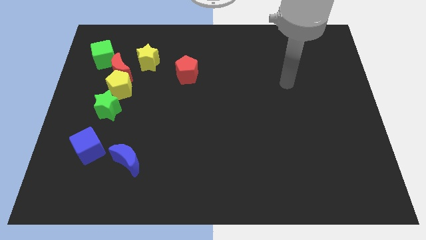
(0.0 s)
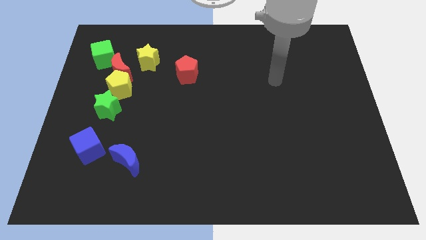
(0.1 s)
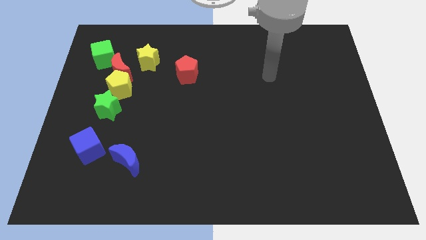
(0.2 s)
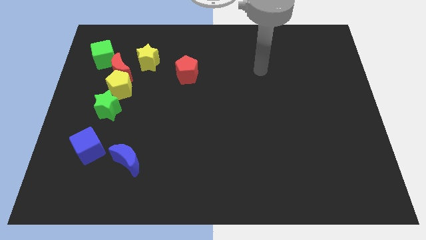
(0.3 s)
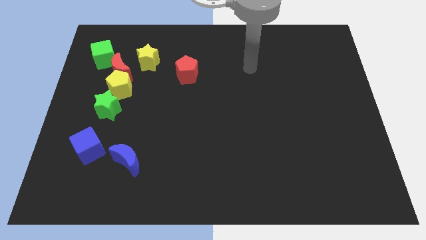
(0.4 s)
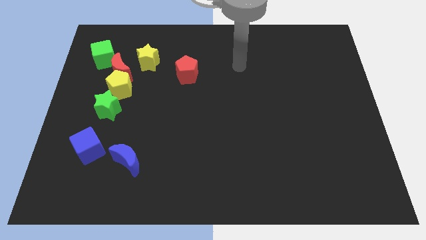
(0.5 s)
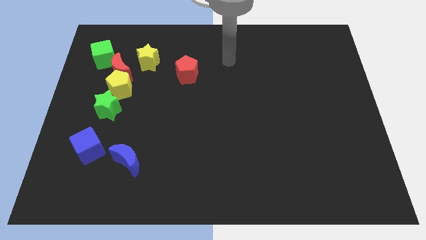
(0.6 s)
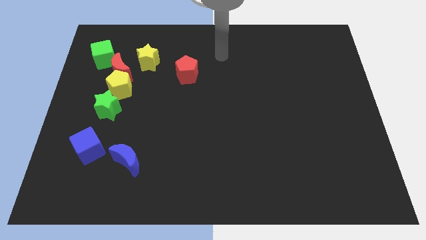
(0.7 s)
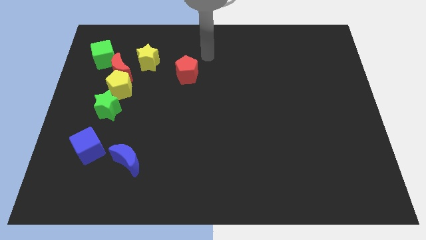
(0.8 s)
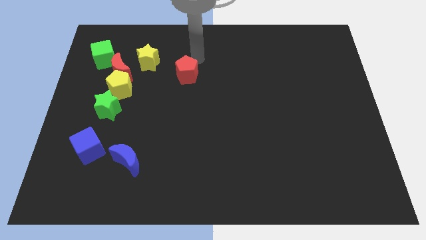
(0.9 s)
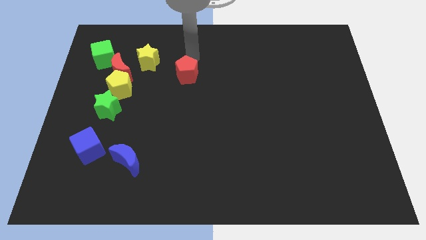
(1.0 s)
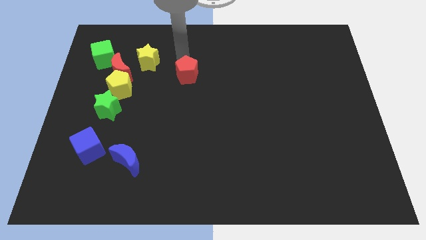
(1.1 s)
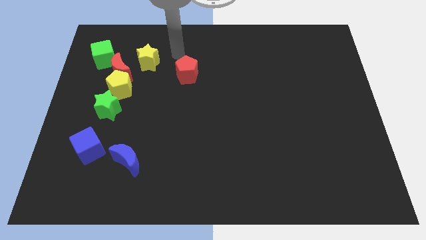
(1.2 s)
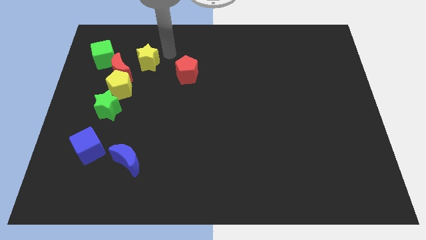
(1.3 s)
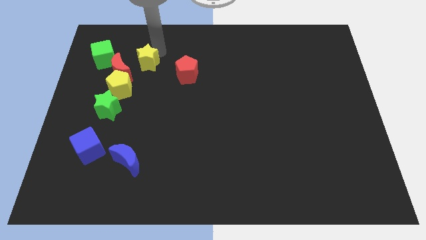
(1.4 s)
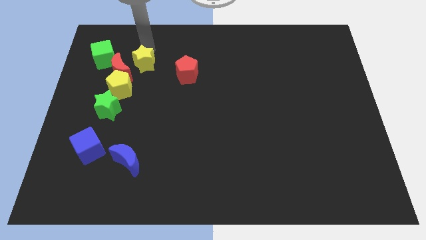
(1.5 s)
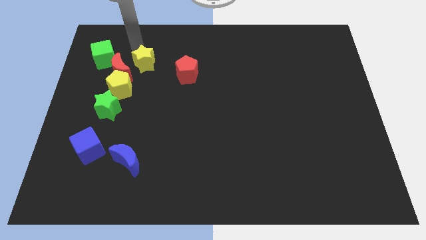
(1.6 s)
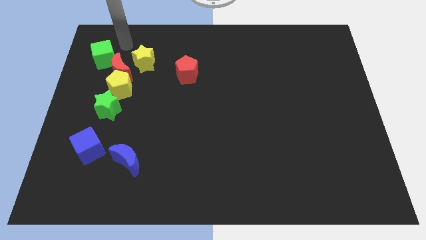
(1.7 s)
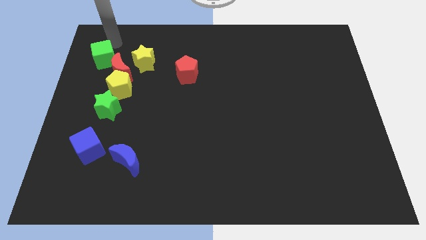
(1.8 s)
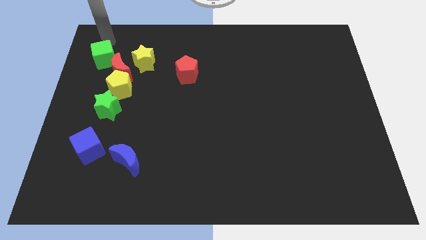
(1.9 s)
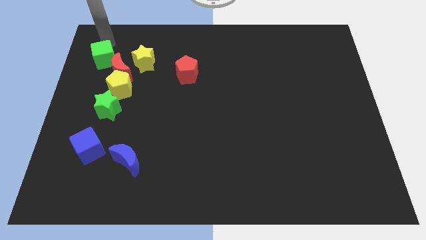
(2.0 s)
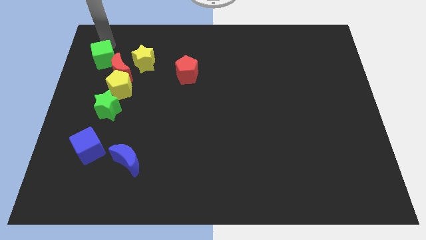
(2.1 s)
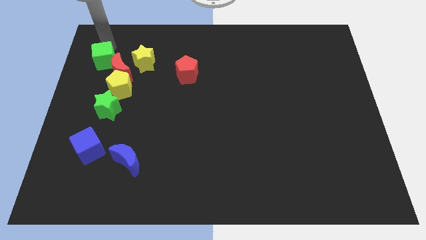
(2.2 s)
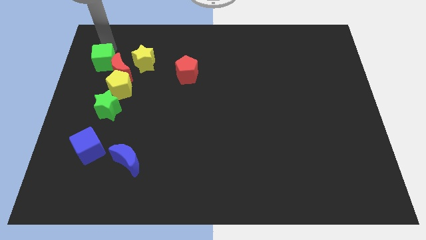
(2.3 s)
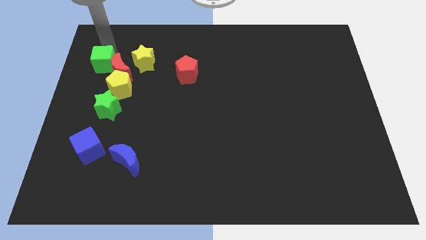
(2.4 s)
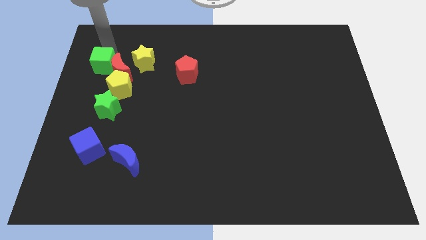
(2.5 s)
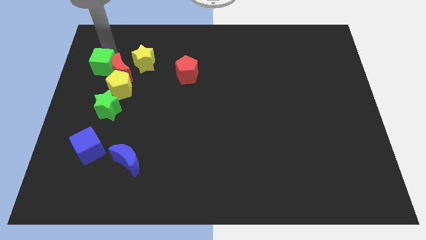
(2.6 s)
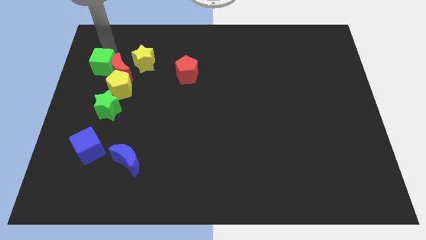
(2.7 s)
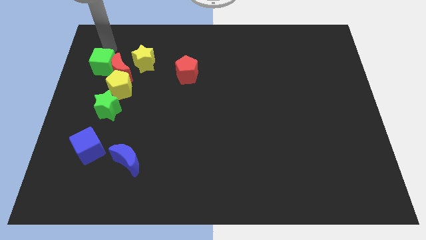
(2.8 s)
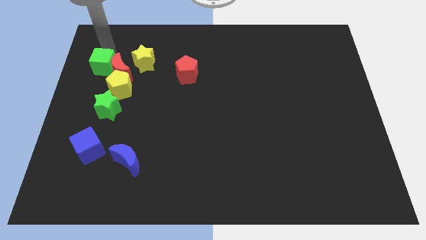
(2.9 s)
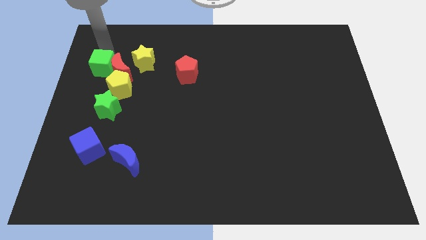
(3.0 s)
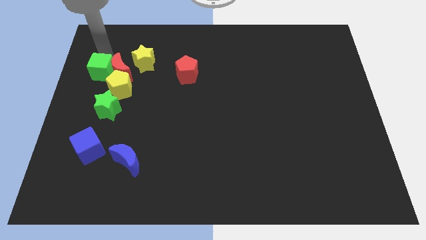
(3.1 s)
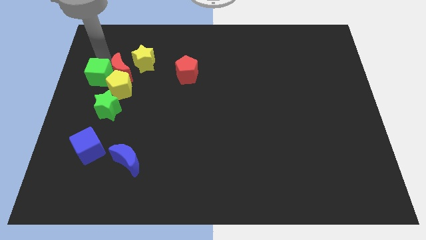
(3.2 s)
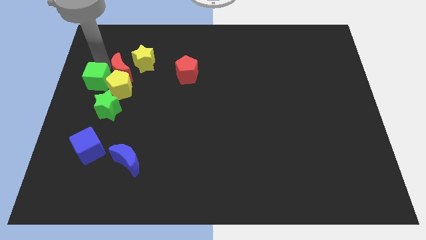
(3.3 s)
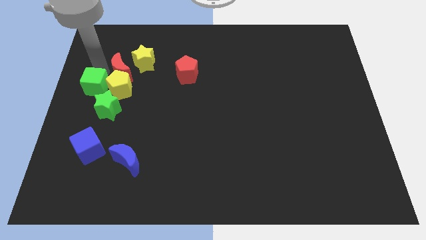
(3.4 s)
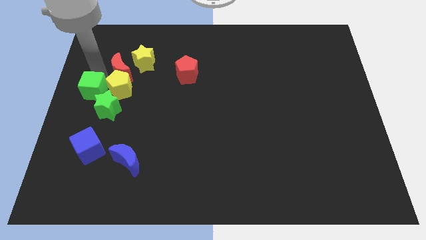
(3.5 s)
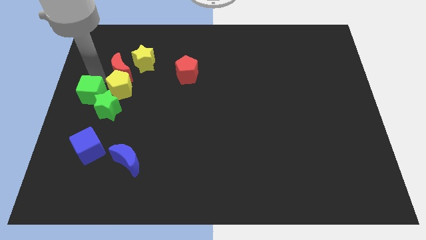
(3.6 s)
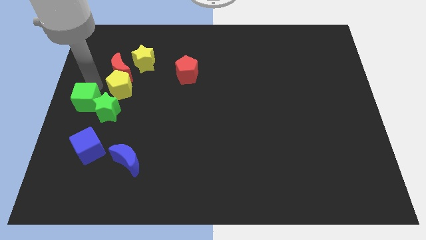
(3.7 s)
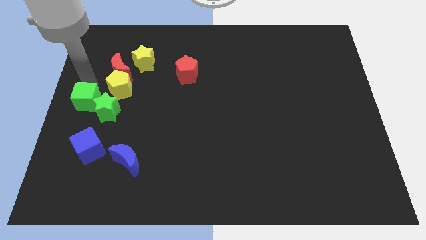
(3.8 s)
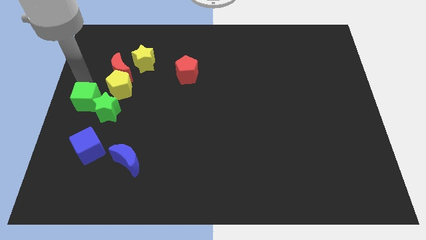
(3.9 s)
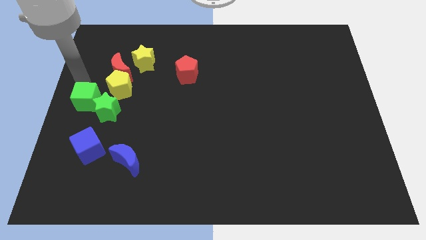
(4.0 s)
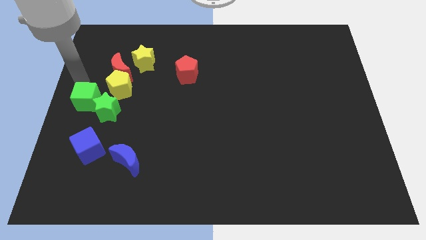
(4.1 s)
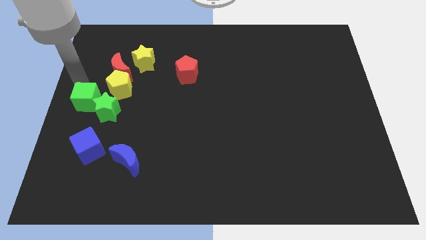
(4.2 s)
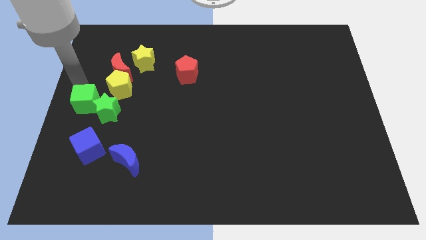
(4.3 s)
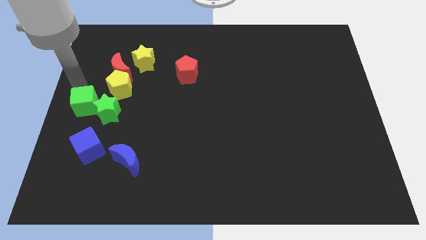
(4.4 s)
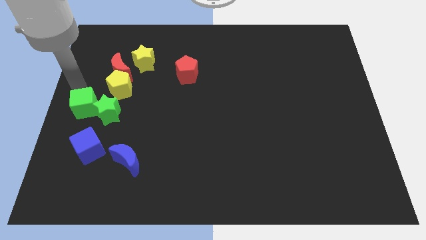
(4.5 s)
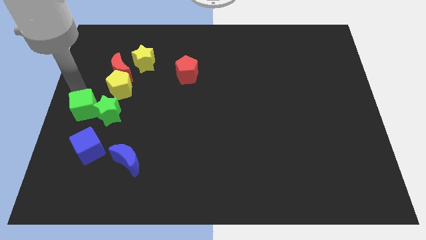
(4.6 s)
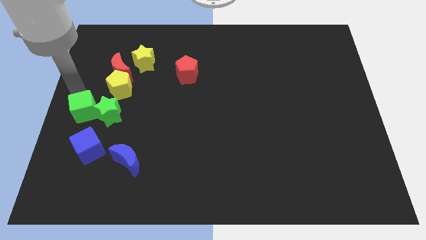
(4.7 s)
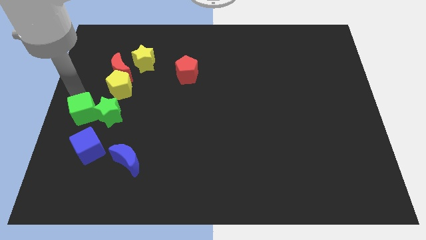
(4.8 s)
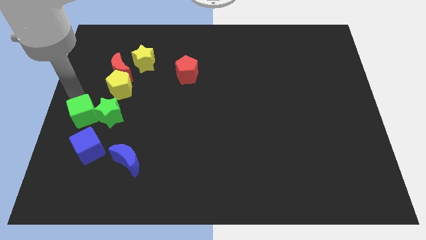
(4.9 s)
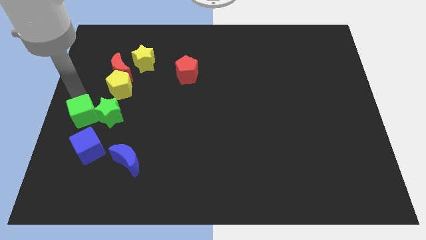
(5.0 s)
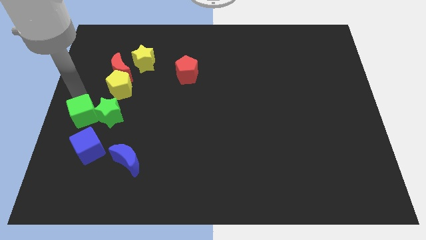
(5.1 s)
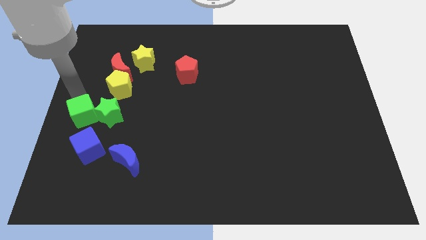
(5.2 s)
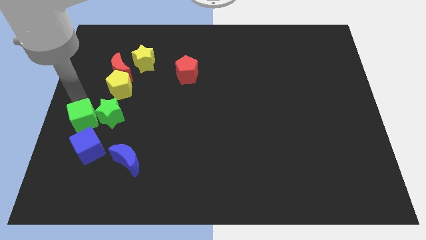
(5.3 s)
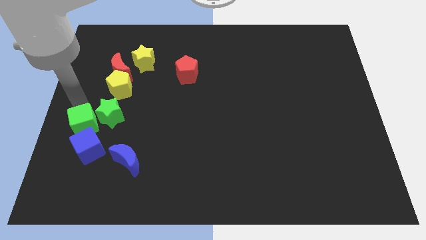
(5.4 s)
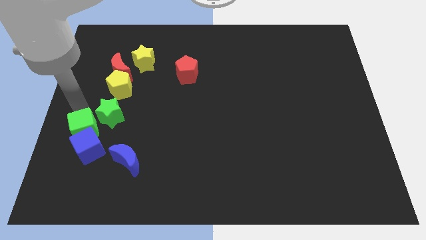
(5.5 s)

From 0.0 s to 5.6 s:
move the green cube to the blue cube

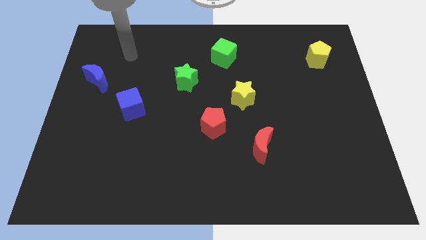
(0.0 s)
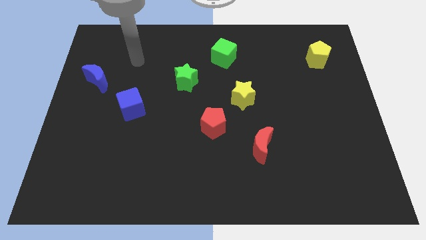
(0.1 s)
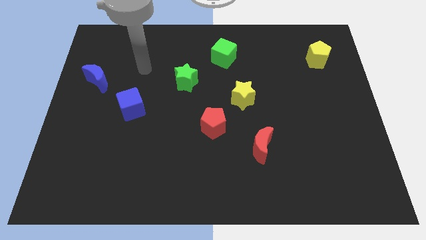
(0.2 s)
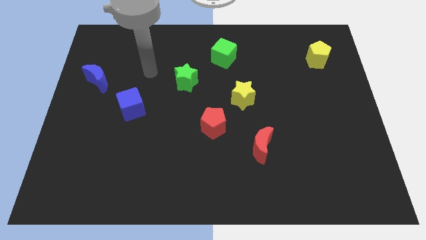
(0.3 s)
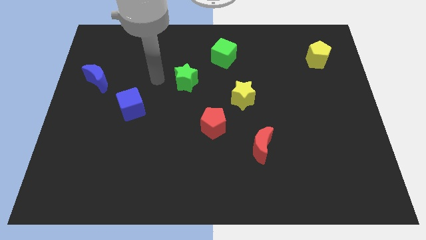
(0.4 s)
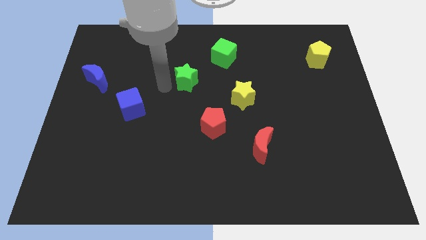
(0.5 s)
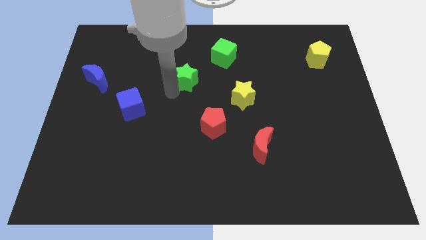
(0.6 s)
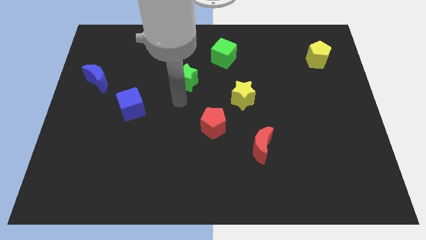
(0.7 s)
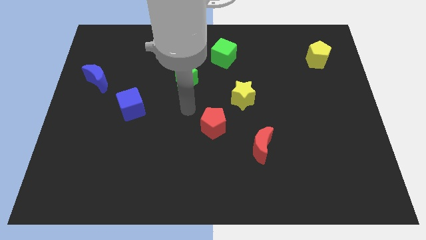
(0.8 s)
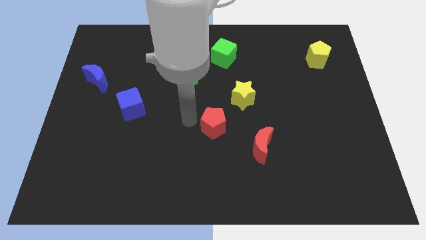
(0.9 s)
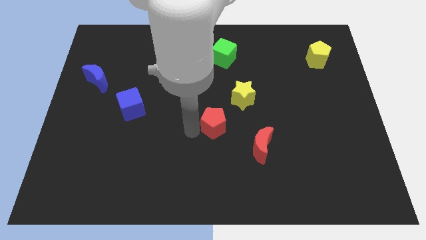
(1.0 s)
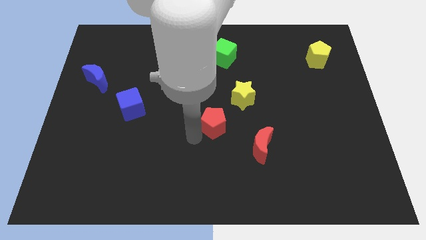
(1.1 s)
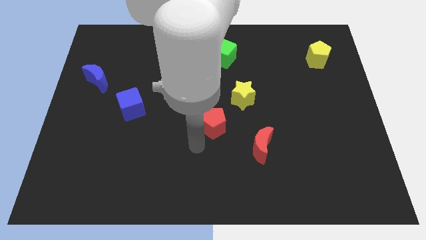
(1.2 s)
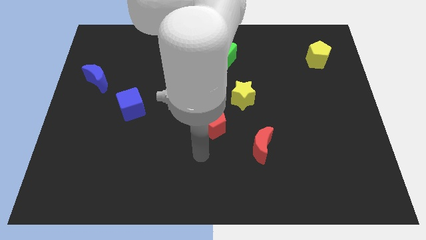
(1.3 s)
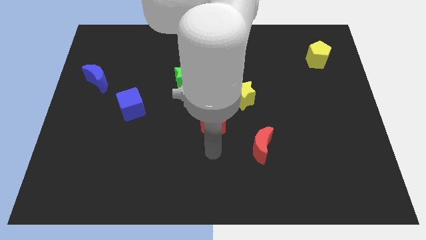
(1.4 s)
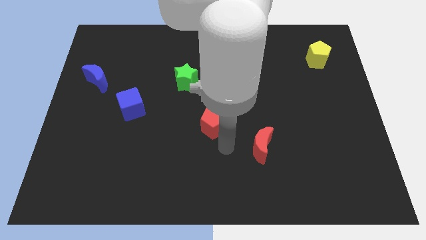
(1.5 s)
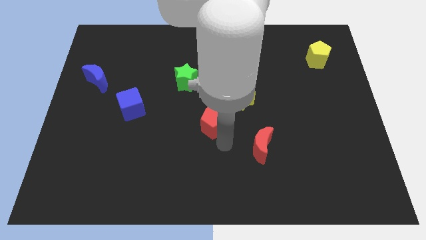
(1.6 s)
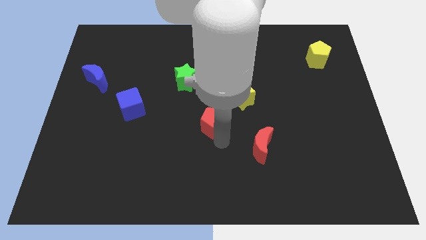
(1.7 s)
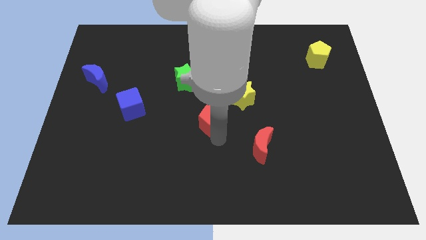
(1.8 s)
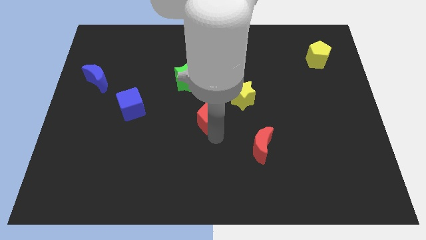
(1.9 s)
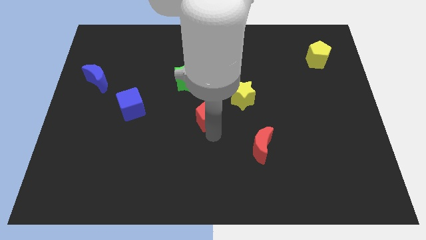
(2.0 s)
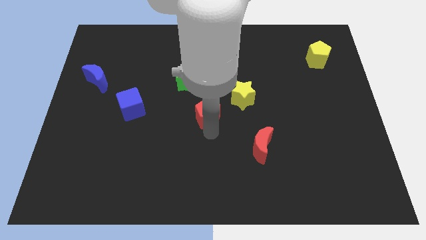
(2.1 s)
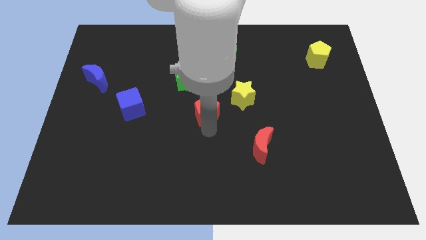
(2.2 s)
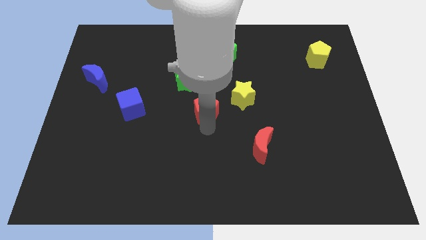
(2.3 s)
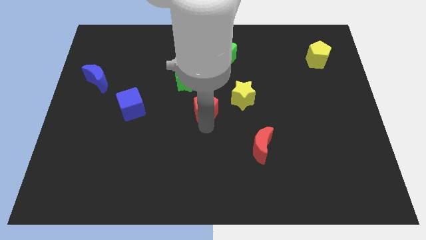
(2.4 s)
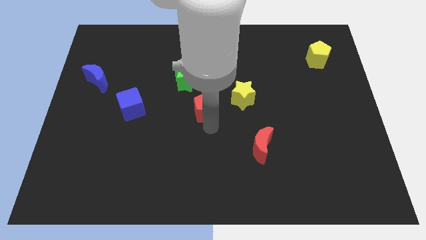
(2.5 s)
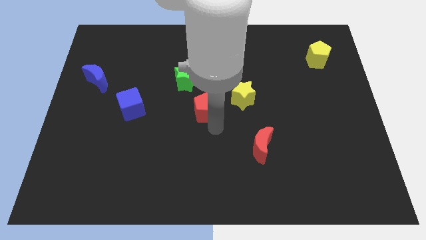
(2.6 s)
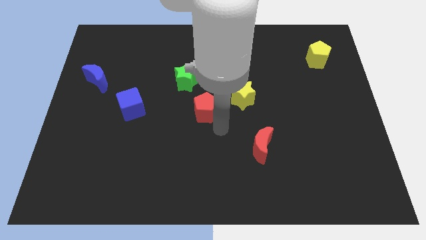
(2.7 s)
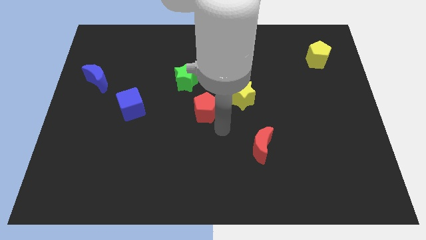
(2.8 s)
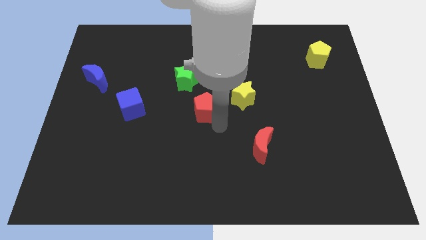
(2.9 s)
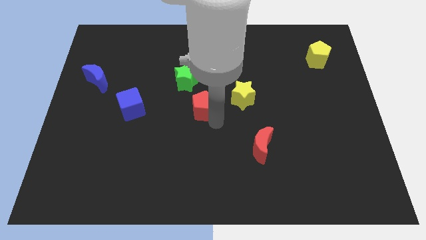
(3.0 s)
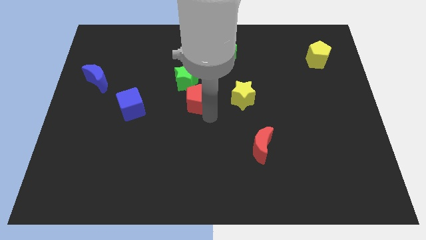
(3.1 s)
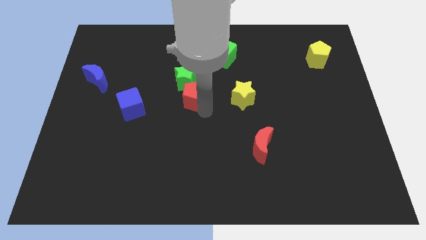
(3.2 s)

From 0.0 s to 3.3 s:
push the red pentagon close to the green star
